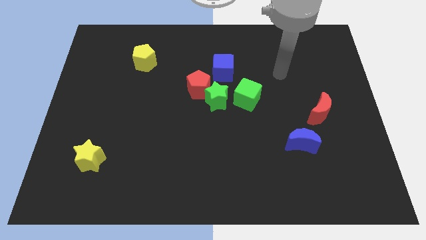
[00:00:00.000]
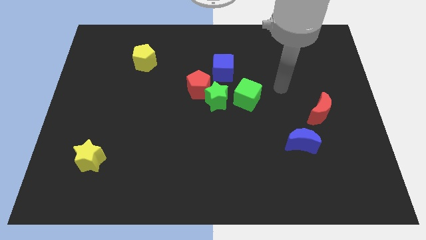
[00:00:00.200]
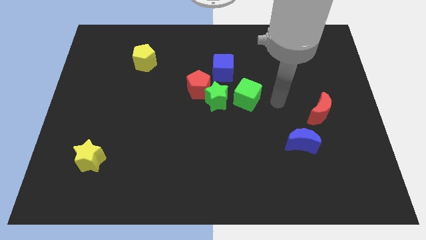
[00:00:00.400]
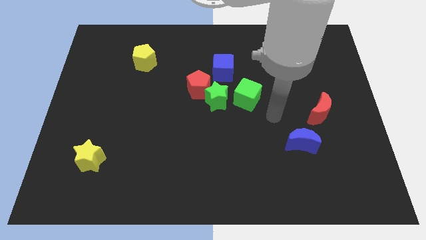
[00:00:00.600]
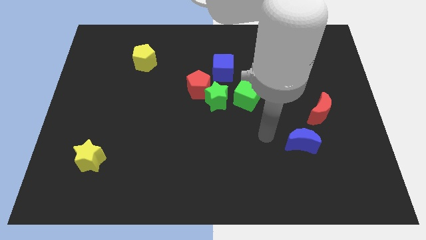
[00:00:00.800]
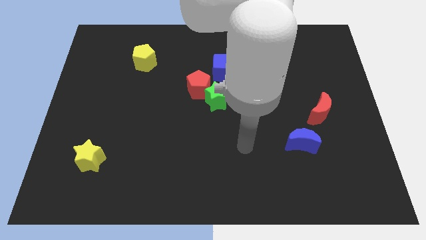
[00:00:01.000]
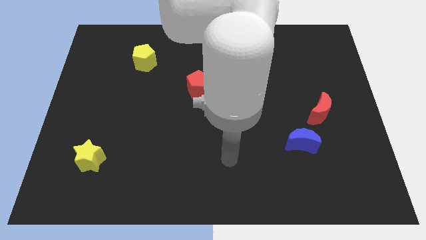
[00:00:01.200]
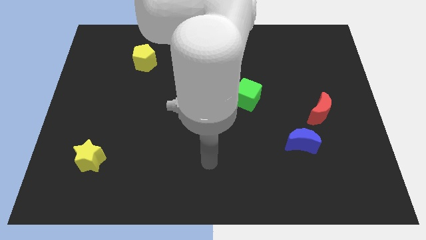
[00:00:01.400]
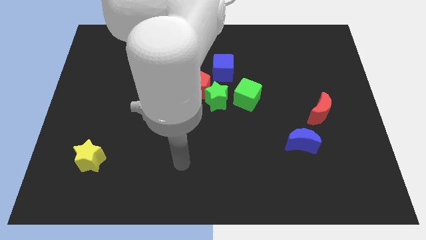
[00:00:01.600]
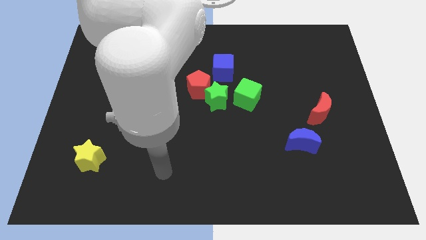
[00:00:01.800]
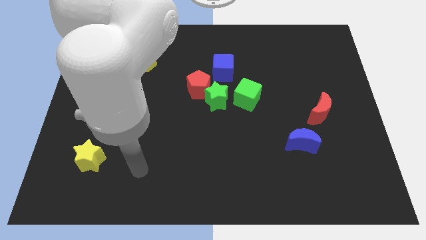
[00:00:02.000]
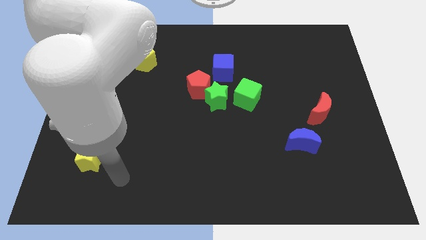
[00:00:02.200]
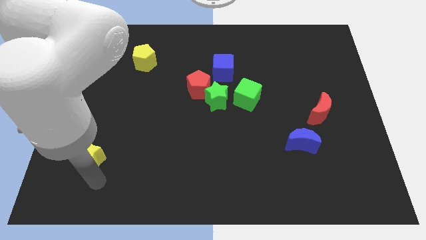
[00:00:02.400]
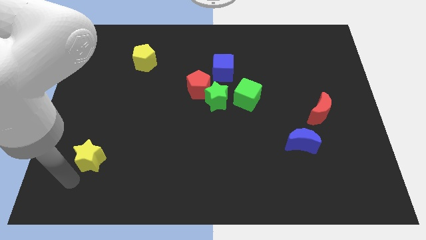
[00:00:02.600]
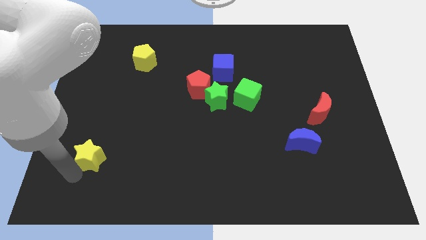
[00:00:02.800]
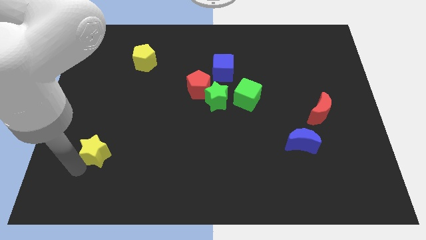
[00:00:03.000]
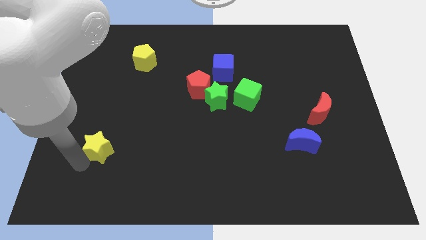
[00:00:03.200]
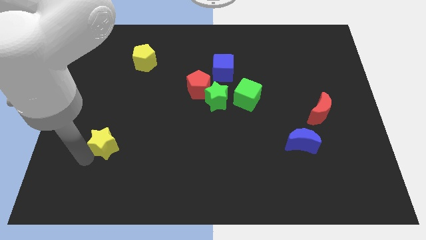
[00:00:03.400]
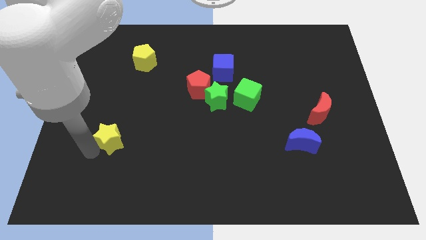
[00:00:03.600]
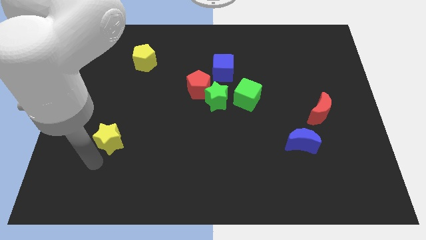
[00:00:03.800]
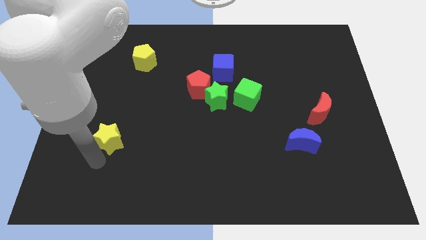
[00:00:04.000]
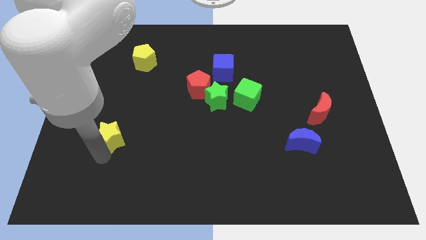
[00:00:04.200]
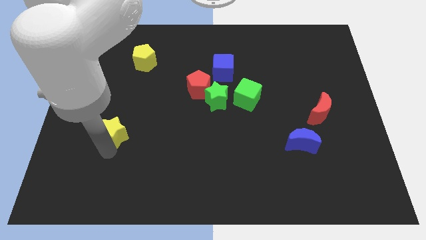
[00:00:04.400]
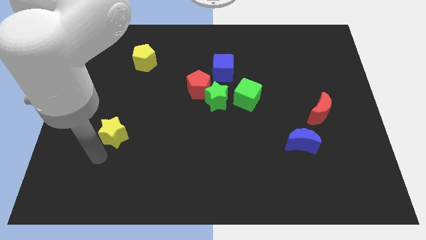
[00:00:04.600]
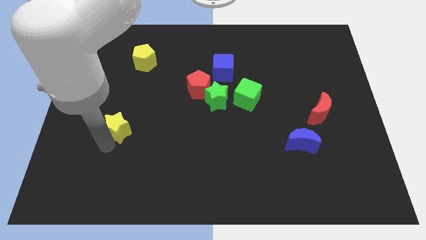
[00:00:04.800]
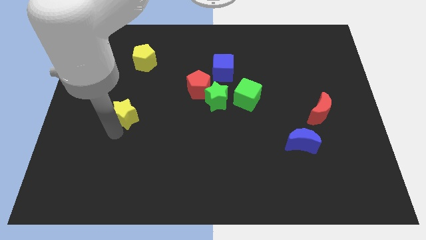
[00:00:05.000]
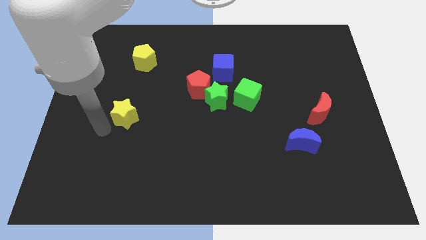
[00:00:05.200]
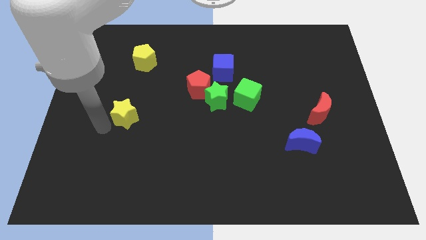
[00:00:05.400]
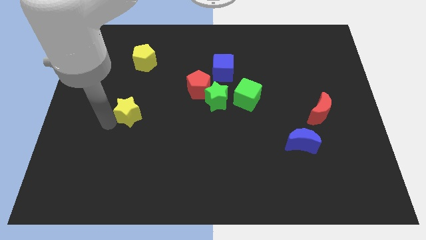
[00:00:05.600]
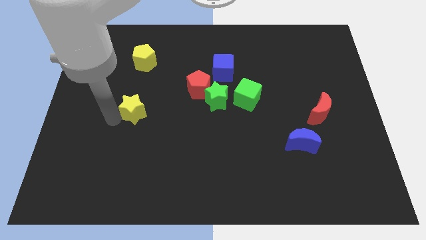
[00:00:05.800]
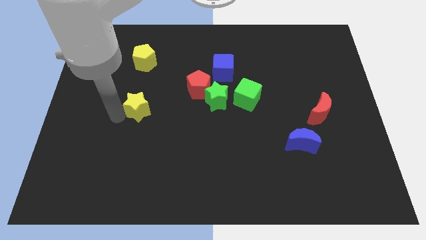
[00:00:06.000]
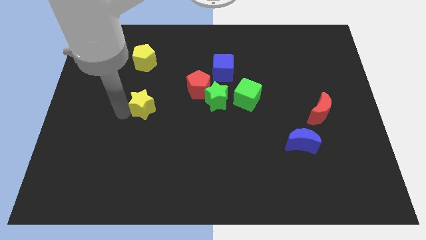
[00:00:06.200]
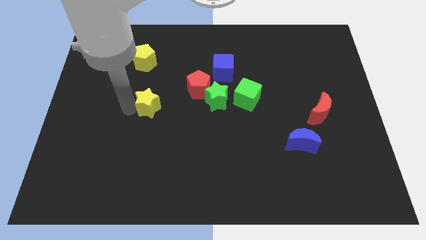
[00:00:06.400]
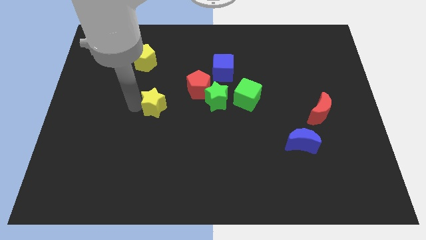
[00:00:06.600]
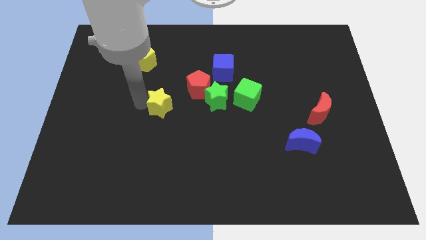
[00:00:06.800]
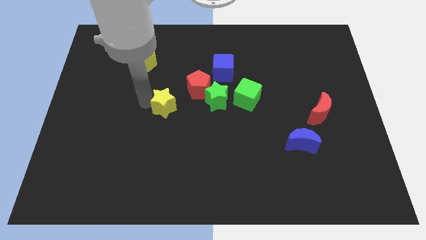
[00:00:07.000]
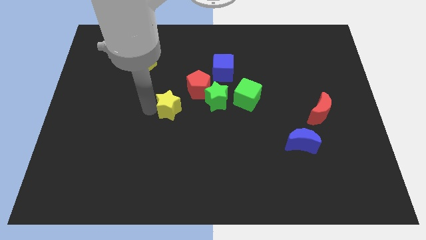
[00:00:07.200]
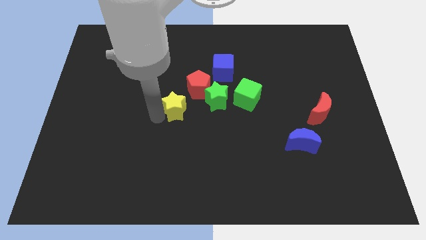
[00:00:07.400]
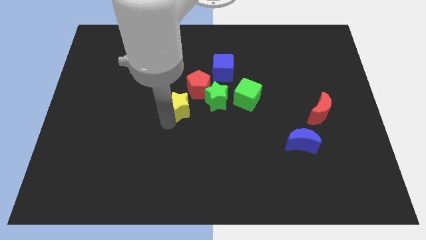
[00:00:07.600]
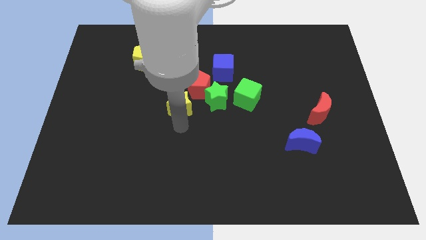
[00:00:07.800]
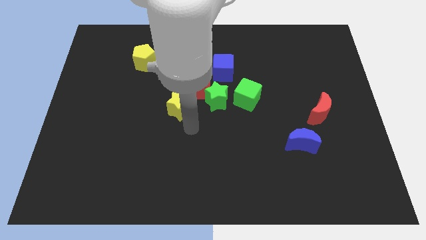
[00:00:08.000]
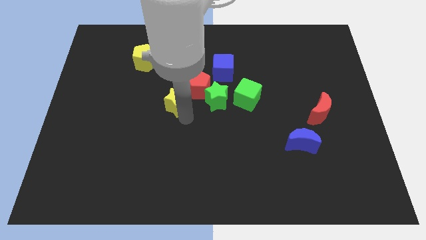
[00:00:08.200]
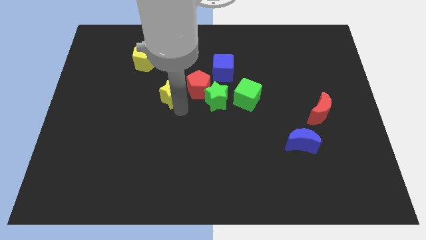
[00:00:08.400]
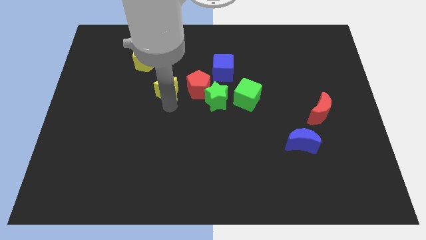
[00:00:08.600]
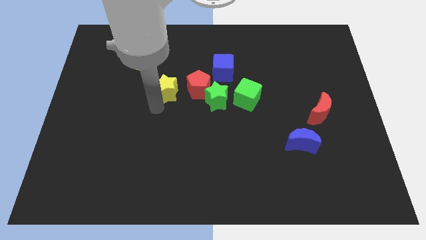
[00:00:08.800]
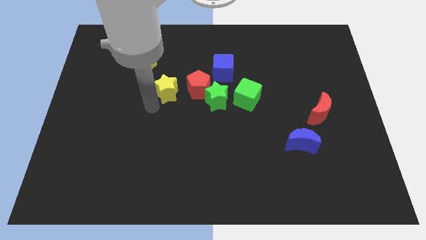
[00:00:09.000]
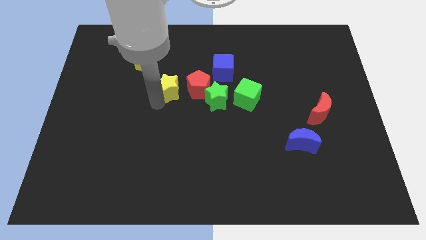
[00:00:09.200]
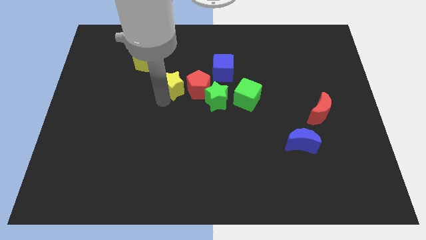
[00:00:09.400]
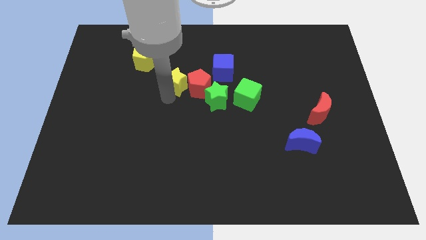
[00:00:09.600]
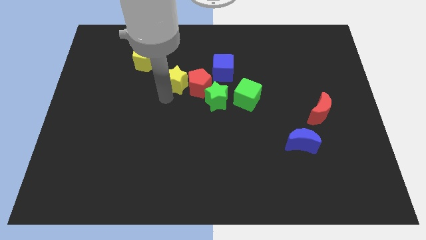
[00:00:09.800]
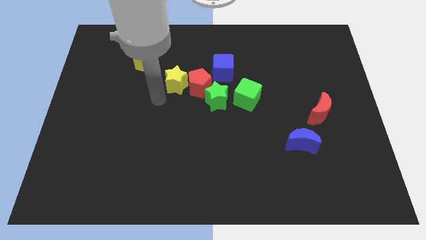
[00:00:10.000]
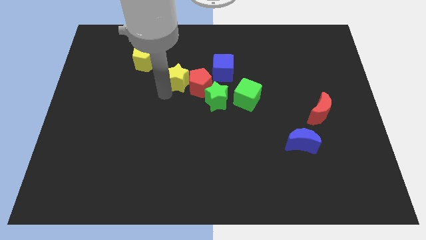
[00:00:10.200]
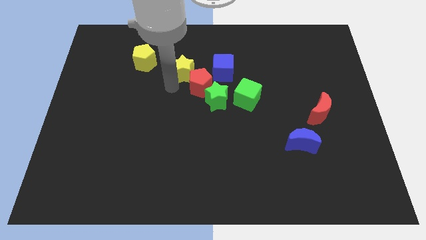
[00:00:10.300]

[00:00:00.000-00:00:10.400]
slide the yellow star above the red pentagon

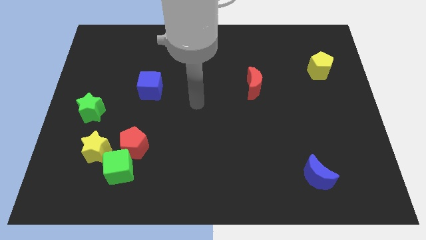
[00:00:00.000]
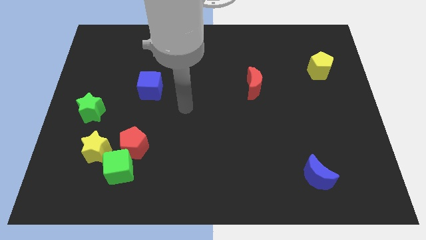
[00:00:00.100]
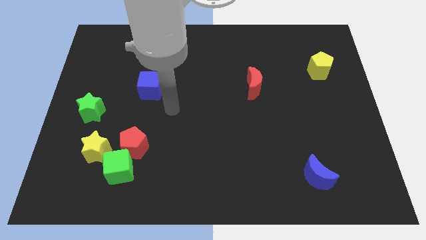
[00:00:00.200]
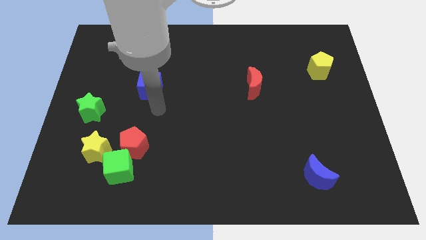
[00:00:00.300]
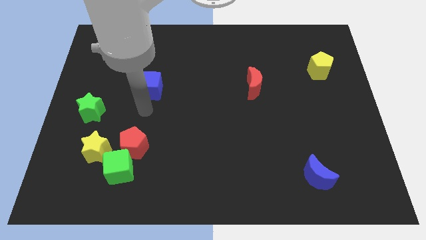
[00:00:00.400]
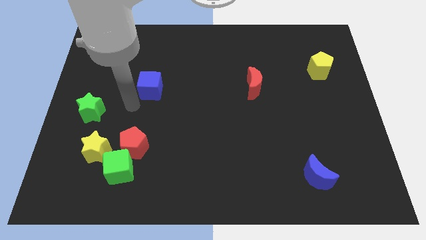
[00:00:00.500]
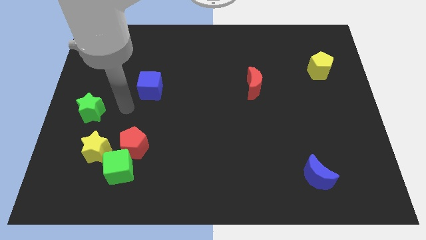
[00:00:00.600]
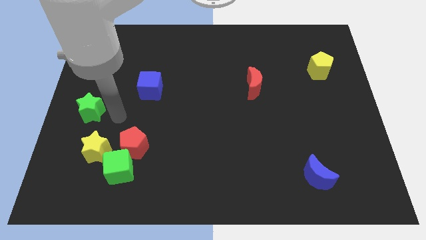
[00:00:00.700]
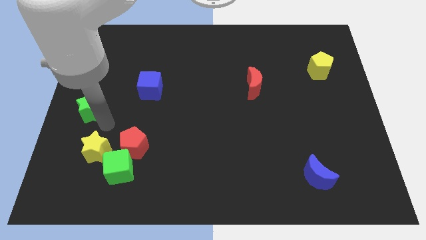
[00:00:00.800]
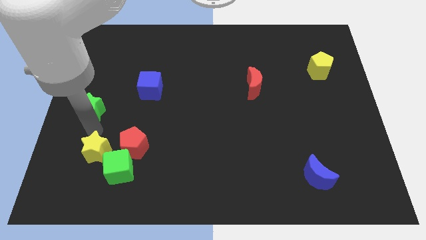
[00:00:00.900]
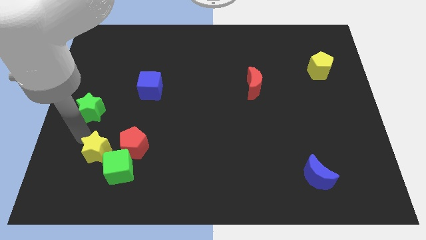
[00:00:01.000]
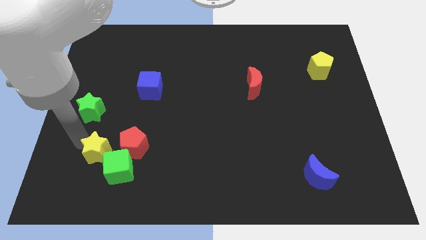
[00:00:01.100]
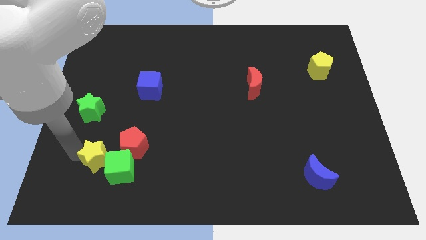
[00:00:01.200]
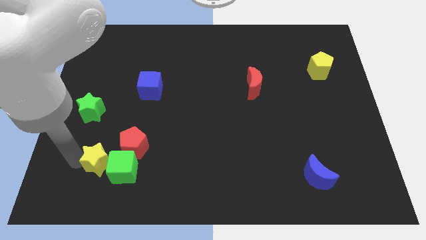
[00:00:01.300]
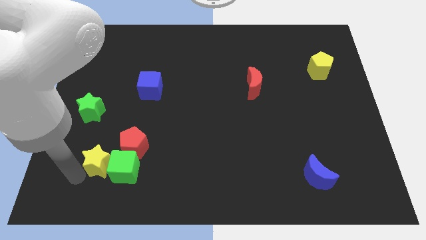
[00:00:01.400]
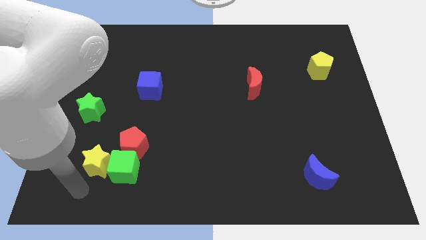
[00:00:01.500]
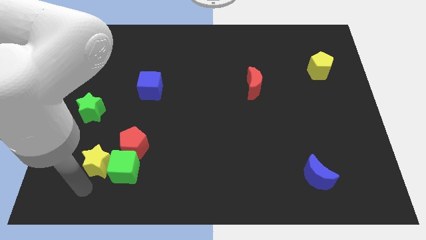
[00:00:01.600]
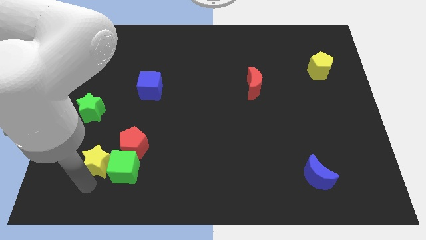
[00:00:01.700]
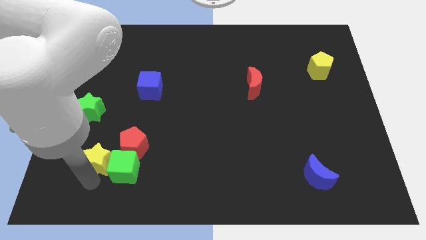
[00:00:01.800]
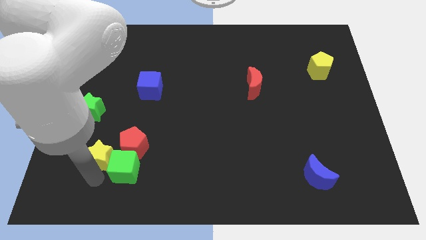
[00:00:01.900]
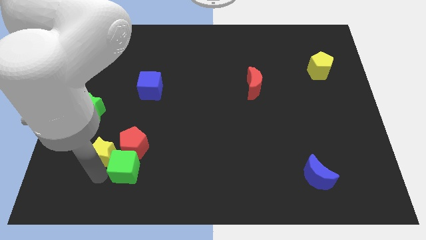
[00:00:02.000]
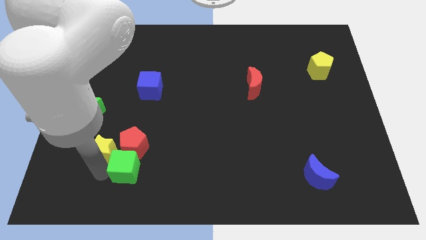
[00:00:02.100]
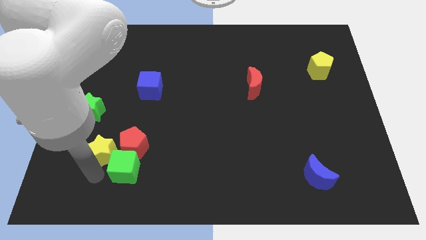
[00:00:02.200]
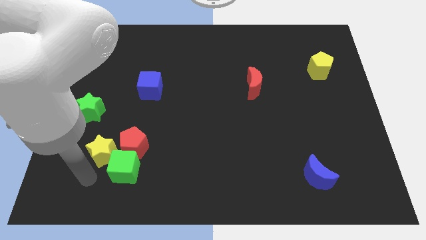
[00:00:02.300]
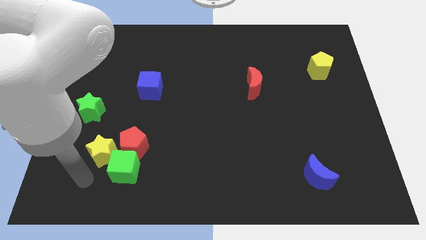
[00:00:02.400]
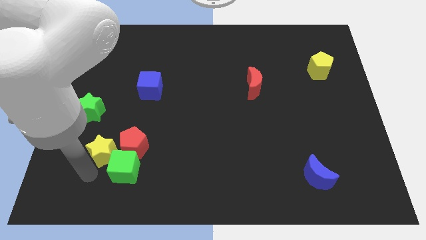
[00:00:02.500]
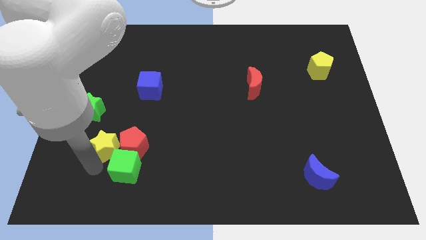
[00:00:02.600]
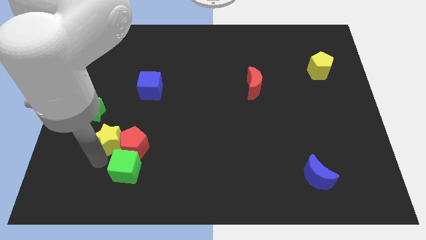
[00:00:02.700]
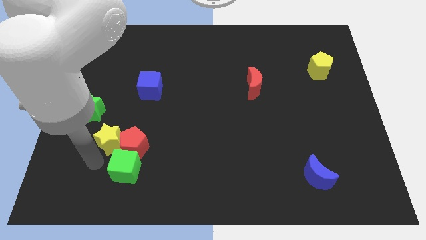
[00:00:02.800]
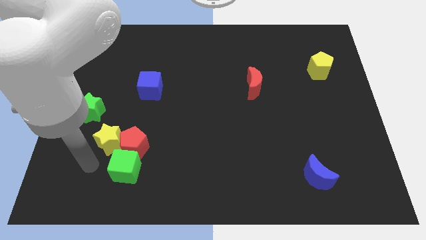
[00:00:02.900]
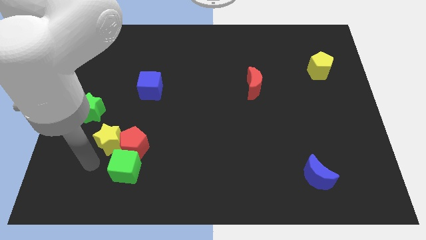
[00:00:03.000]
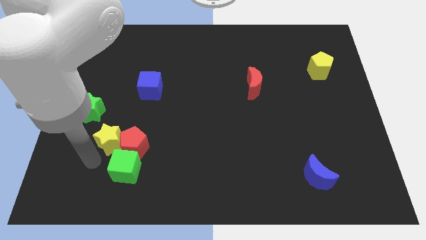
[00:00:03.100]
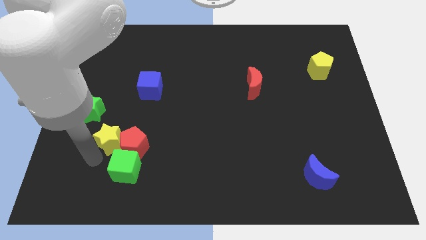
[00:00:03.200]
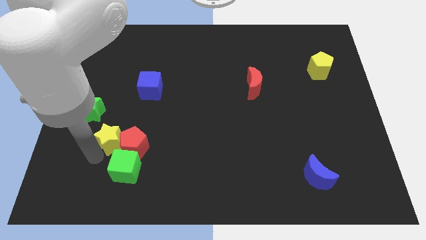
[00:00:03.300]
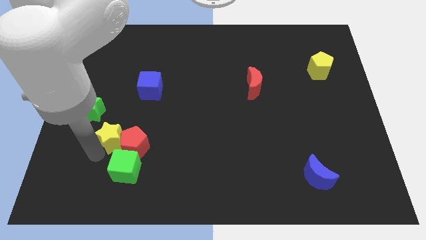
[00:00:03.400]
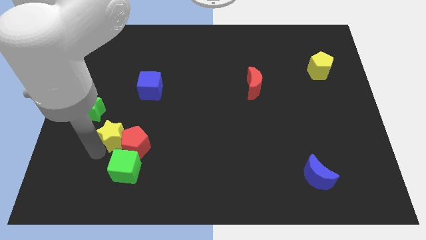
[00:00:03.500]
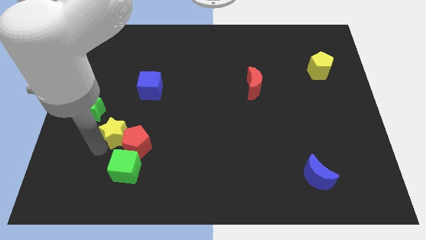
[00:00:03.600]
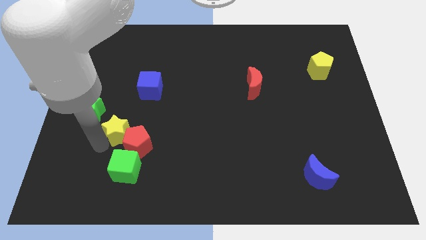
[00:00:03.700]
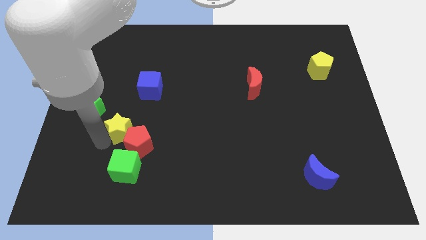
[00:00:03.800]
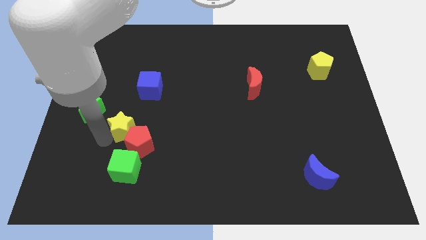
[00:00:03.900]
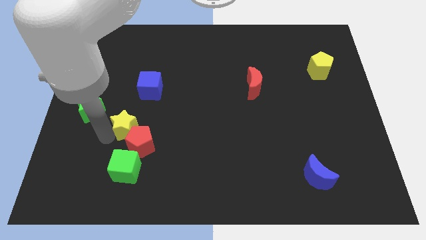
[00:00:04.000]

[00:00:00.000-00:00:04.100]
put the yellow star to the bottom side of the blue cube
